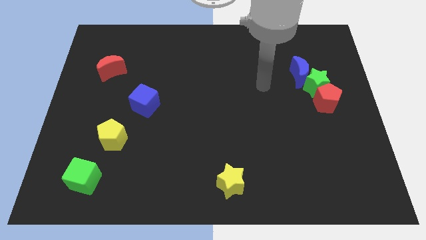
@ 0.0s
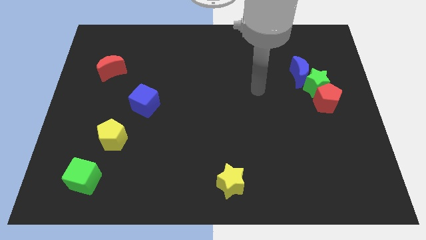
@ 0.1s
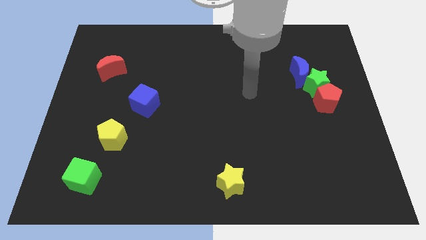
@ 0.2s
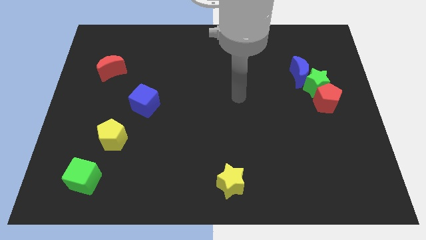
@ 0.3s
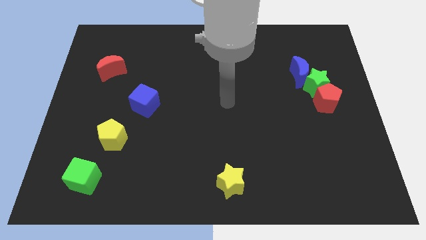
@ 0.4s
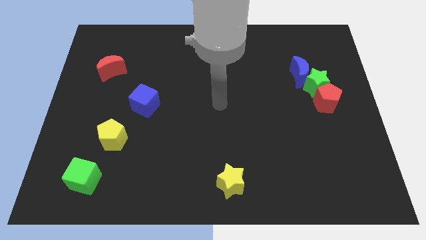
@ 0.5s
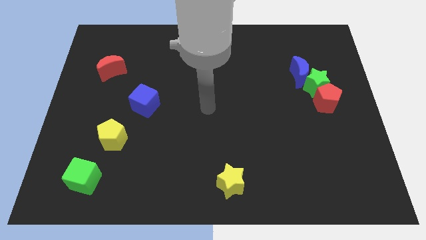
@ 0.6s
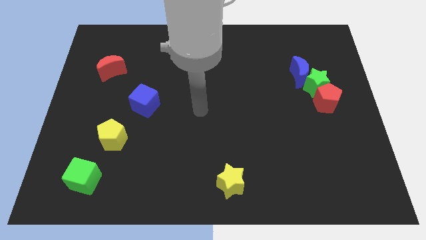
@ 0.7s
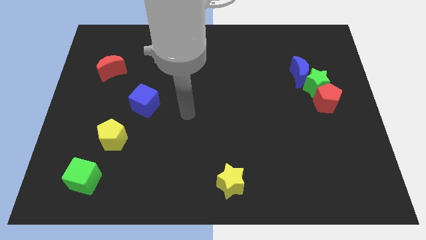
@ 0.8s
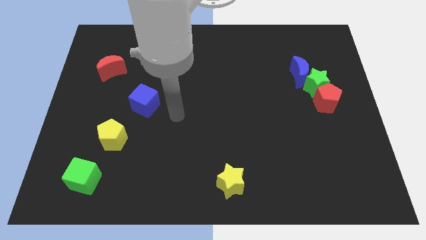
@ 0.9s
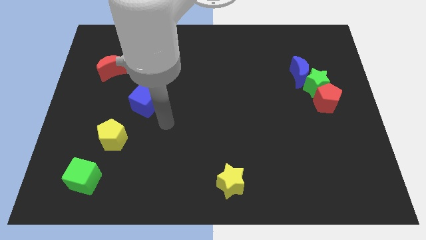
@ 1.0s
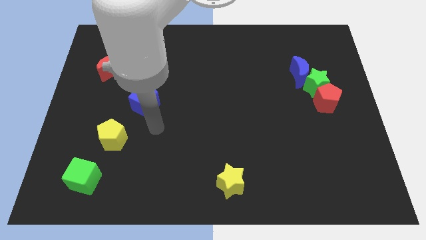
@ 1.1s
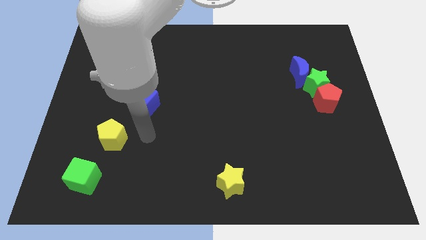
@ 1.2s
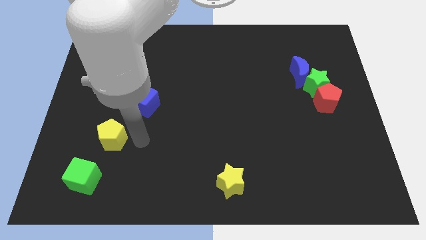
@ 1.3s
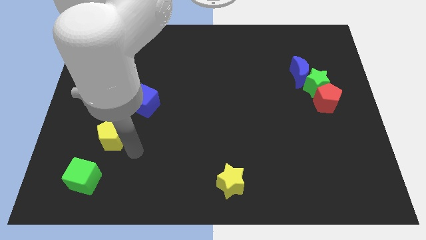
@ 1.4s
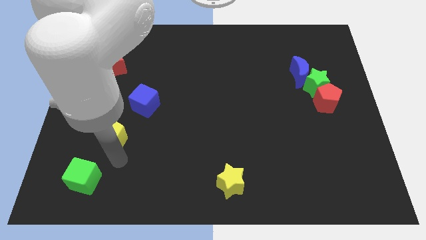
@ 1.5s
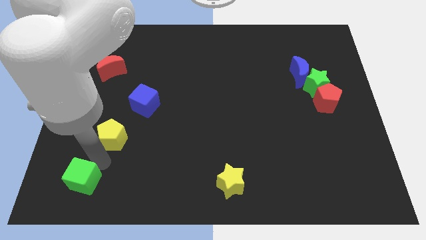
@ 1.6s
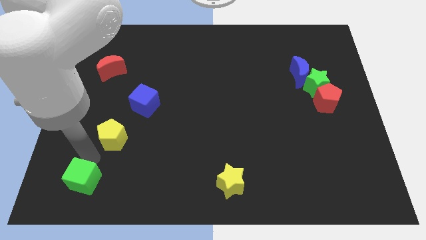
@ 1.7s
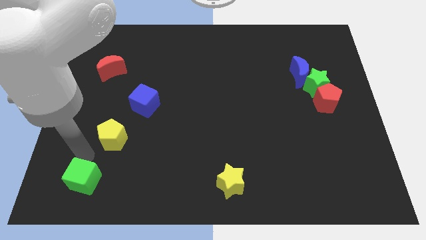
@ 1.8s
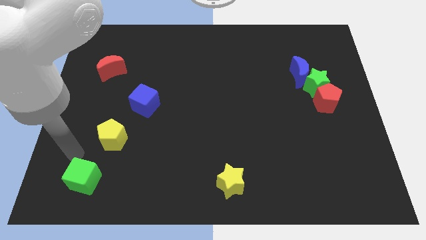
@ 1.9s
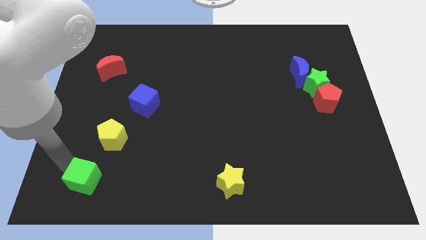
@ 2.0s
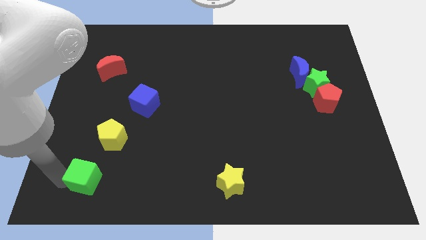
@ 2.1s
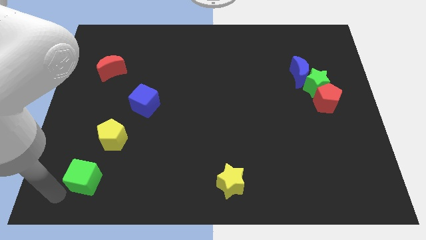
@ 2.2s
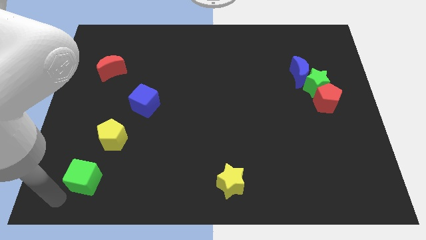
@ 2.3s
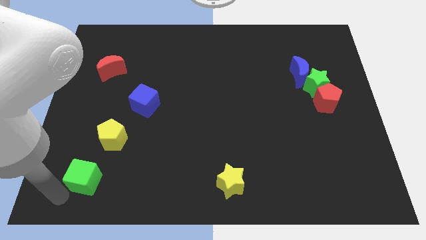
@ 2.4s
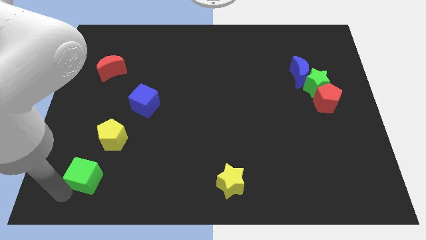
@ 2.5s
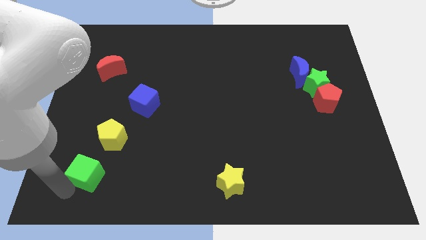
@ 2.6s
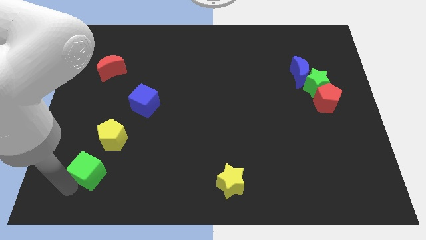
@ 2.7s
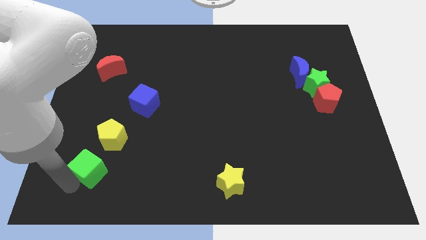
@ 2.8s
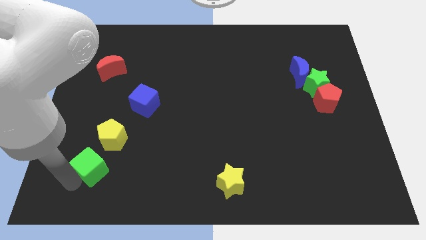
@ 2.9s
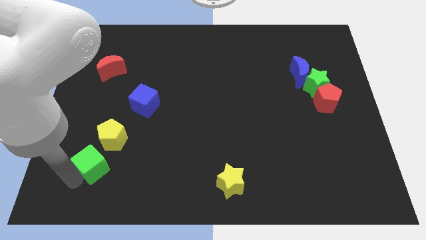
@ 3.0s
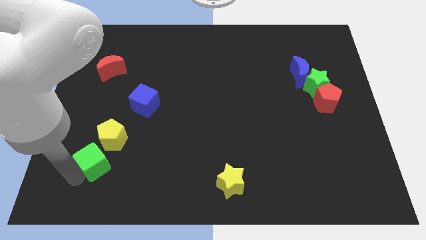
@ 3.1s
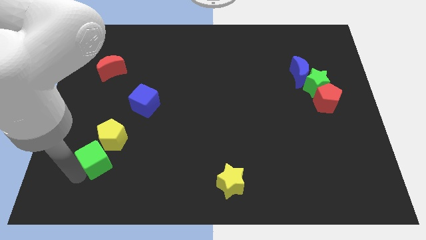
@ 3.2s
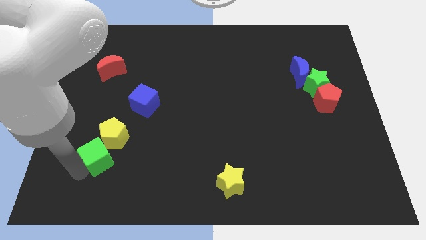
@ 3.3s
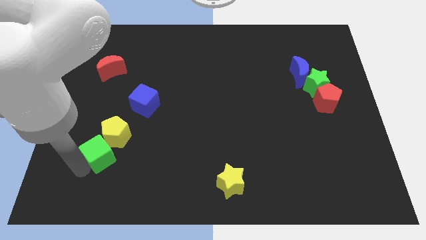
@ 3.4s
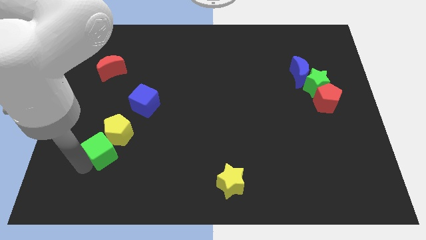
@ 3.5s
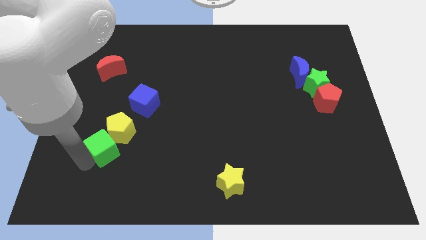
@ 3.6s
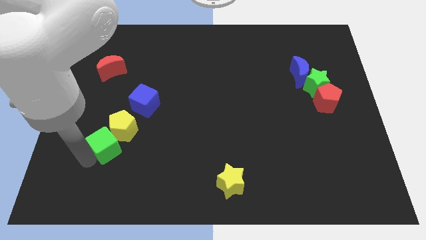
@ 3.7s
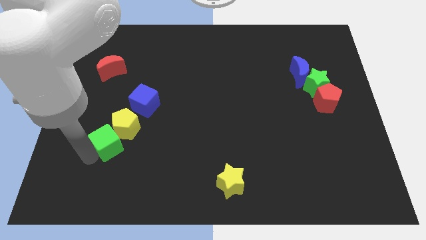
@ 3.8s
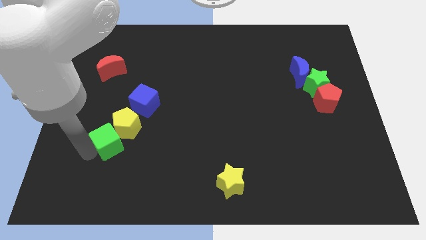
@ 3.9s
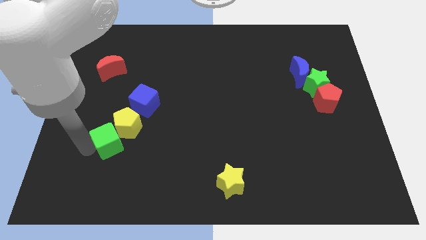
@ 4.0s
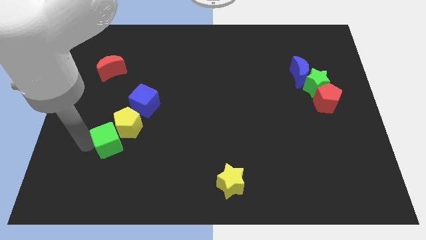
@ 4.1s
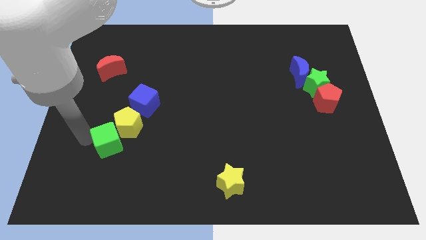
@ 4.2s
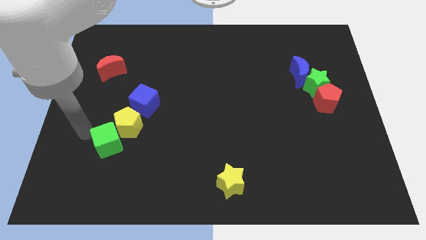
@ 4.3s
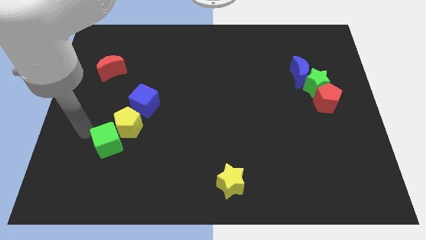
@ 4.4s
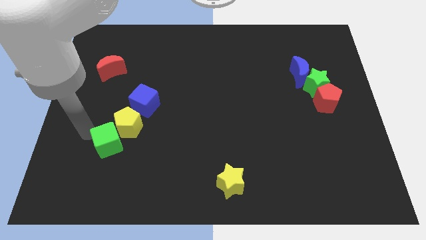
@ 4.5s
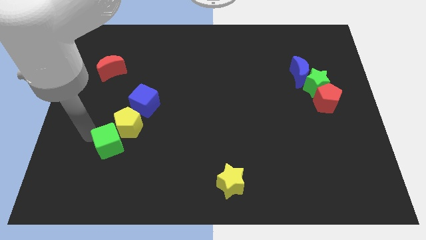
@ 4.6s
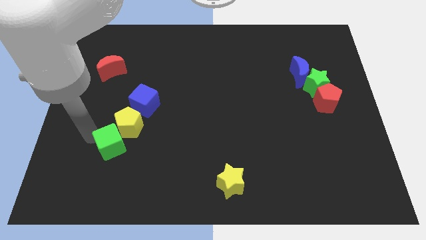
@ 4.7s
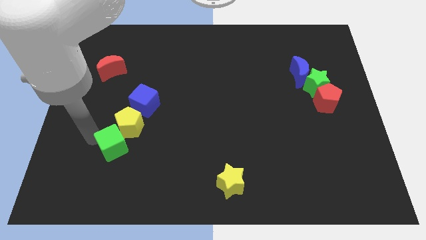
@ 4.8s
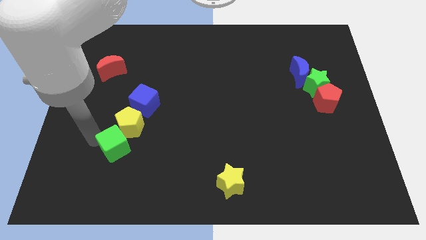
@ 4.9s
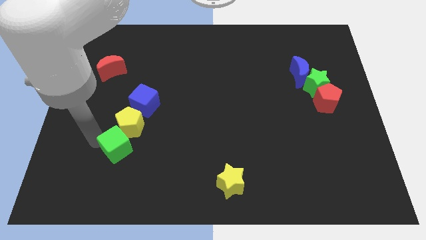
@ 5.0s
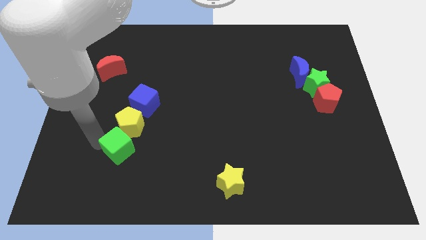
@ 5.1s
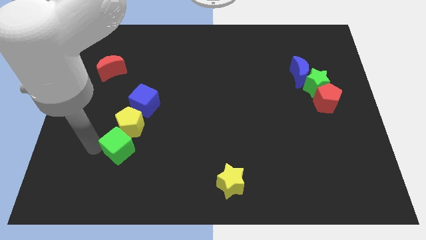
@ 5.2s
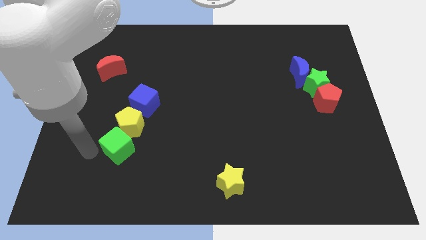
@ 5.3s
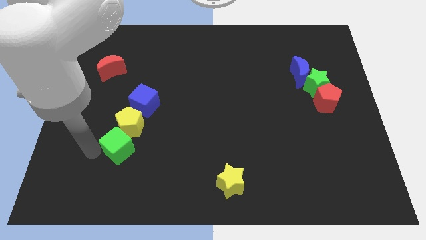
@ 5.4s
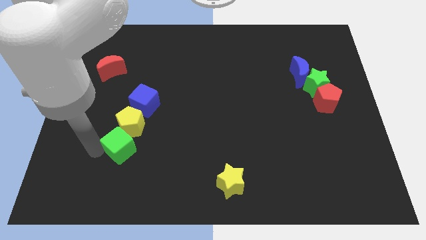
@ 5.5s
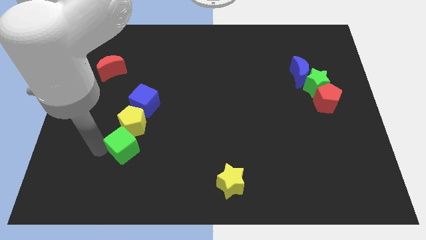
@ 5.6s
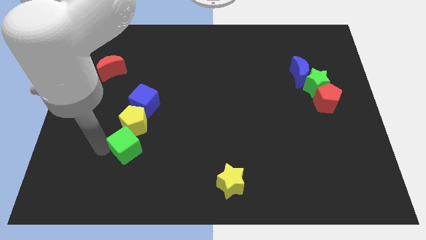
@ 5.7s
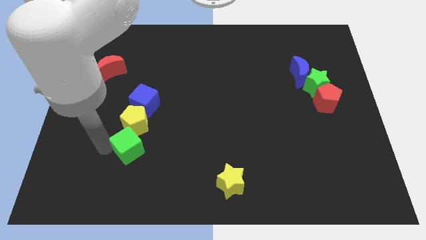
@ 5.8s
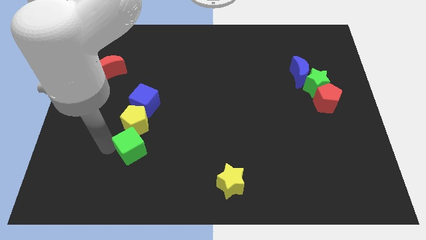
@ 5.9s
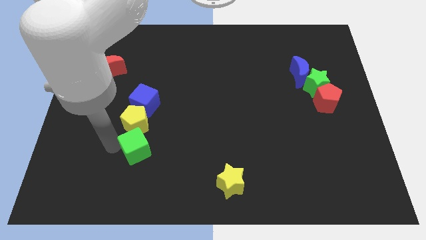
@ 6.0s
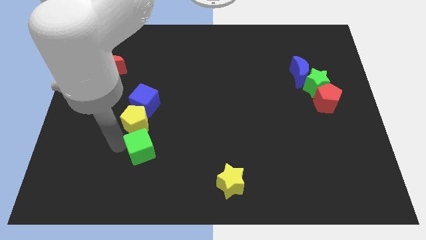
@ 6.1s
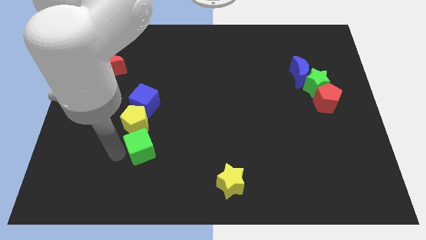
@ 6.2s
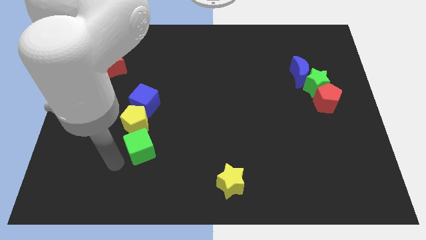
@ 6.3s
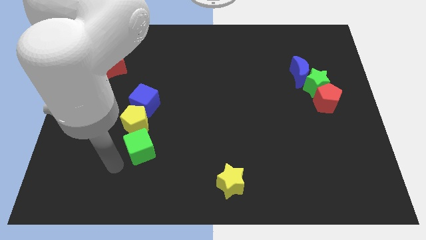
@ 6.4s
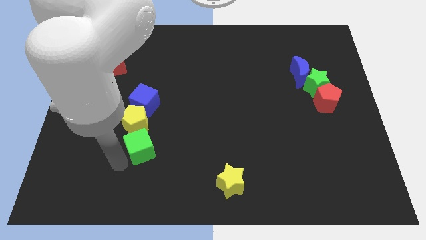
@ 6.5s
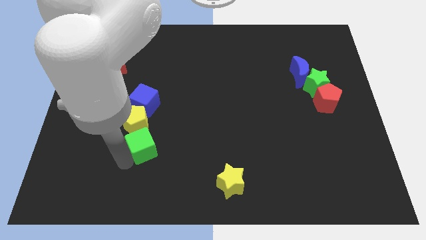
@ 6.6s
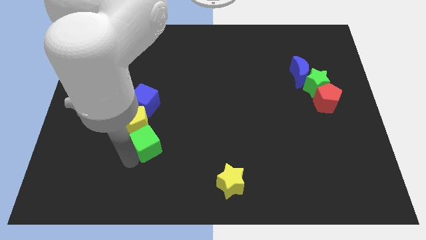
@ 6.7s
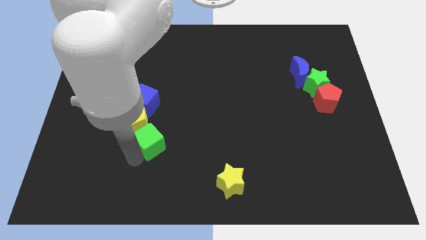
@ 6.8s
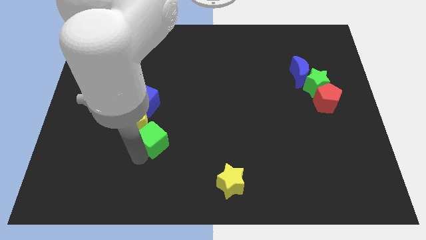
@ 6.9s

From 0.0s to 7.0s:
move the green cube right of the yellow pentagon
